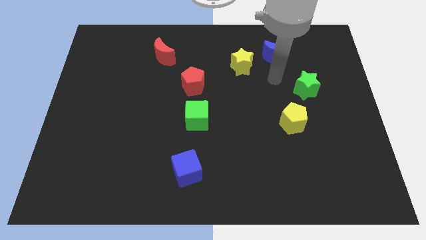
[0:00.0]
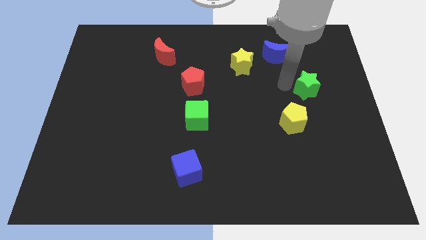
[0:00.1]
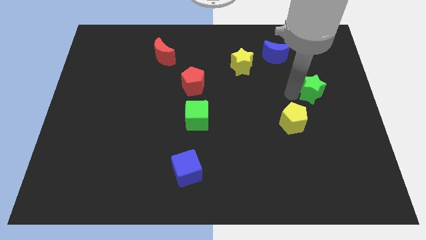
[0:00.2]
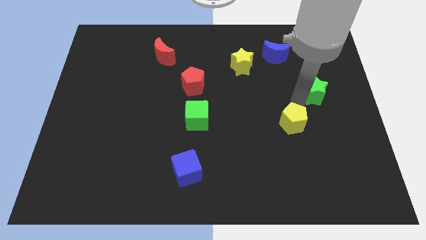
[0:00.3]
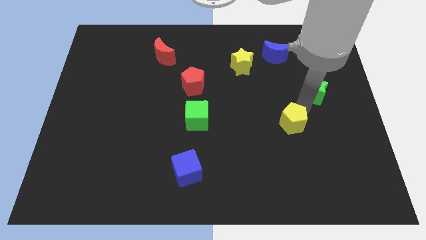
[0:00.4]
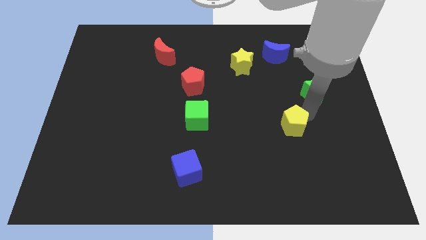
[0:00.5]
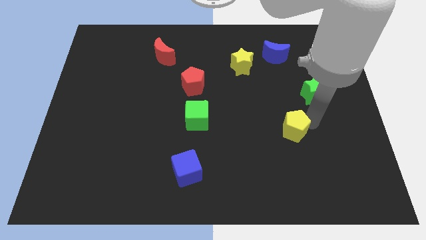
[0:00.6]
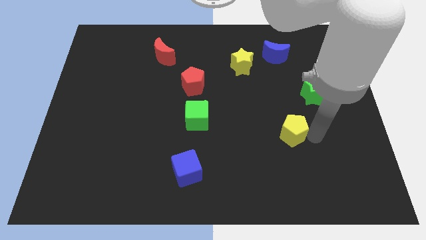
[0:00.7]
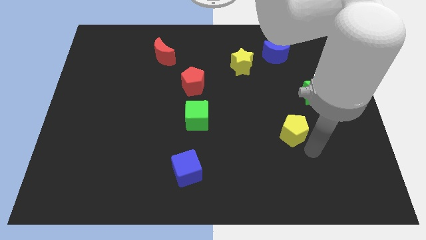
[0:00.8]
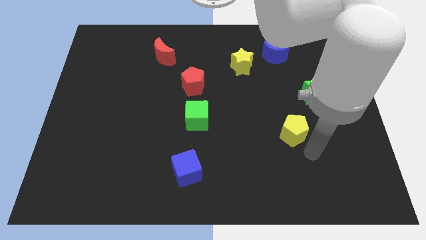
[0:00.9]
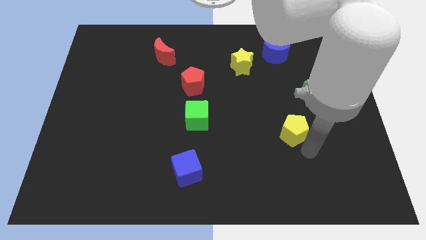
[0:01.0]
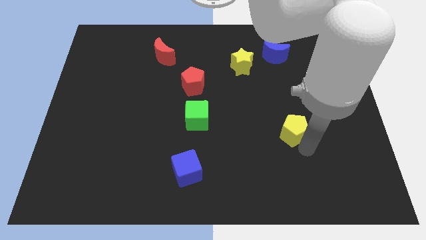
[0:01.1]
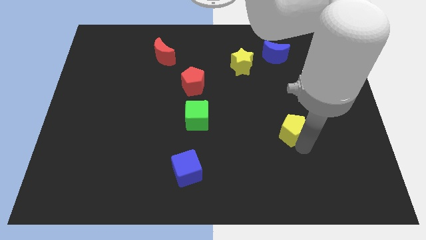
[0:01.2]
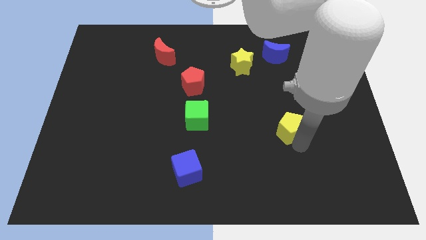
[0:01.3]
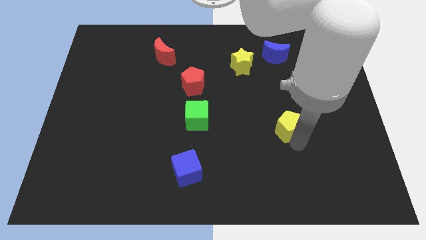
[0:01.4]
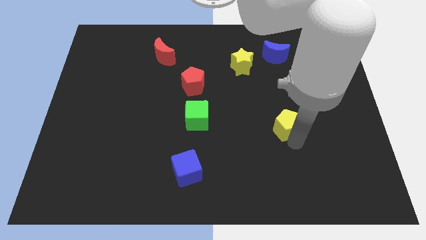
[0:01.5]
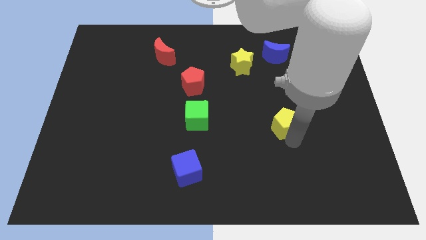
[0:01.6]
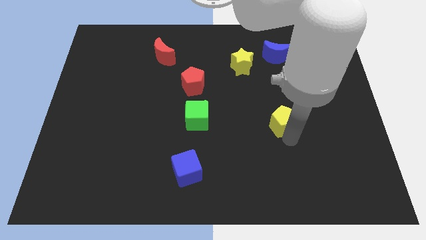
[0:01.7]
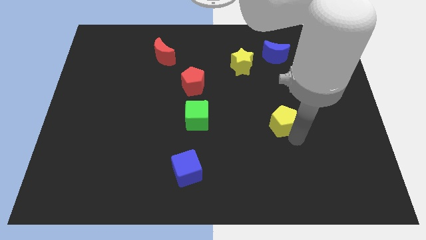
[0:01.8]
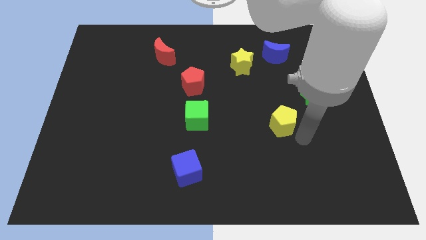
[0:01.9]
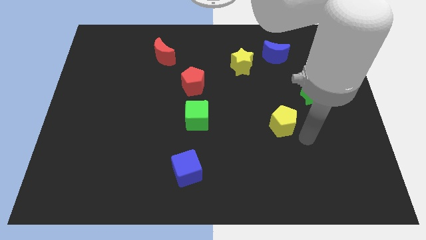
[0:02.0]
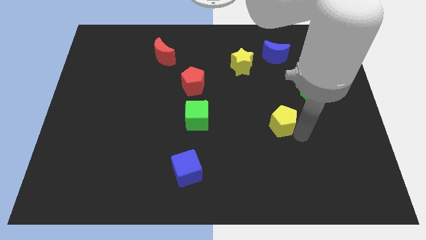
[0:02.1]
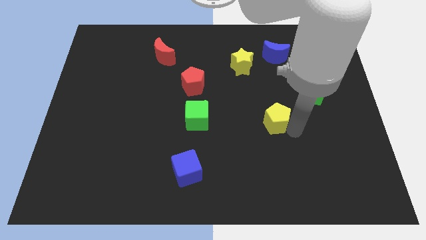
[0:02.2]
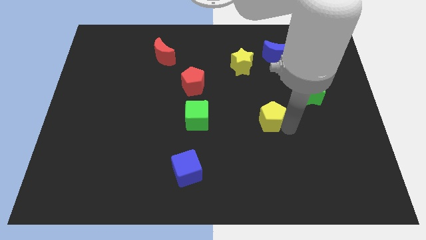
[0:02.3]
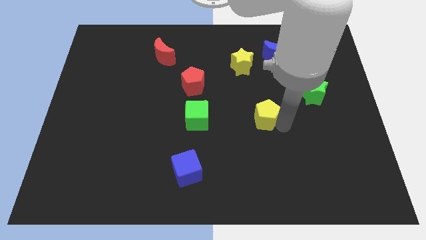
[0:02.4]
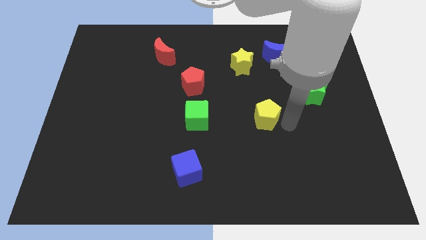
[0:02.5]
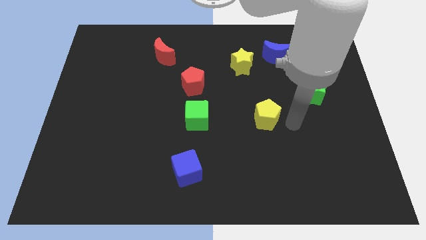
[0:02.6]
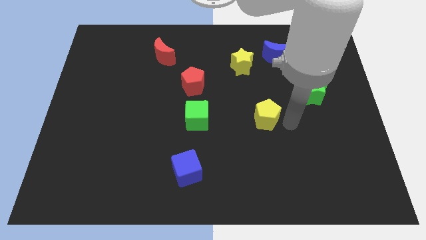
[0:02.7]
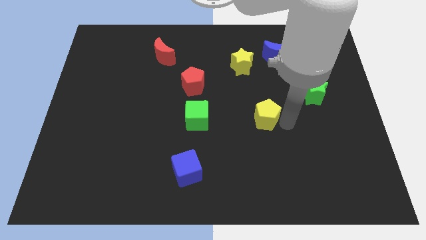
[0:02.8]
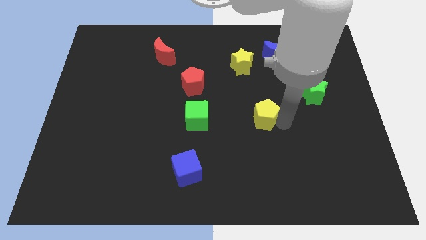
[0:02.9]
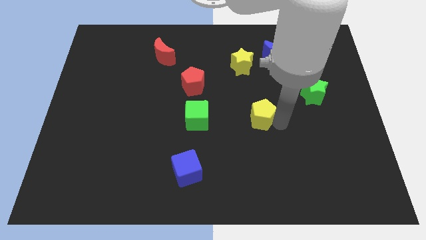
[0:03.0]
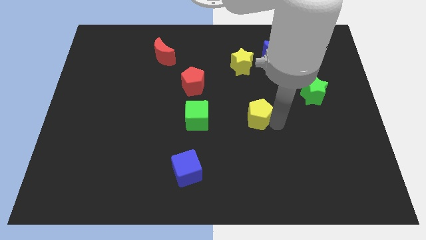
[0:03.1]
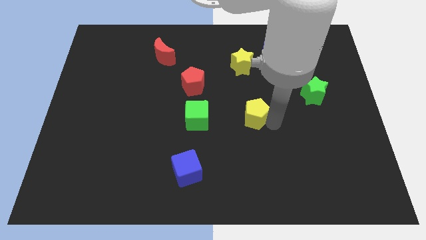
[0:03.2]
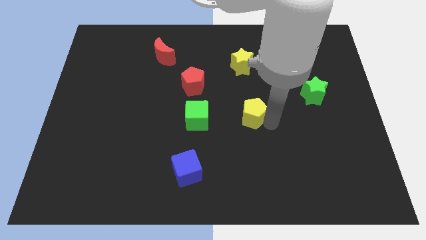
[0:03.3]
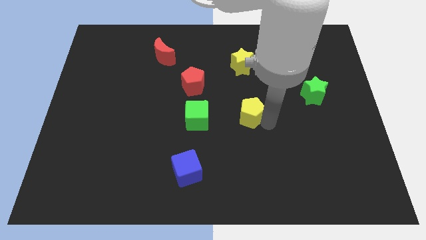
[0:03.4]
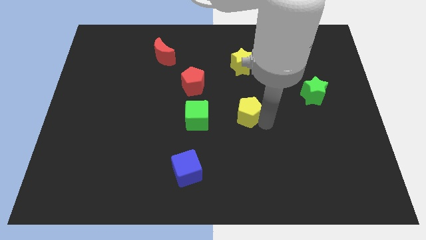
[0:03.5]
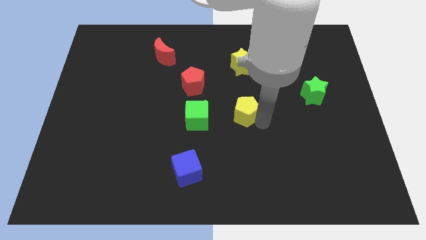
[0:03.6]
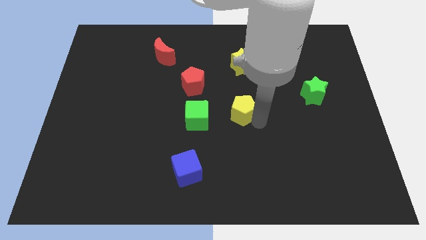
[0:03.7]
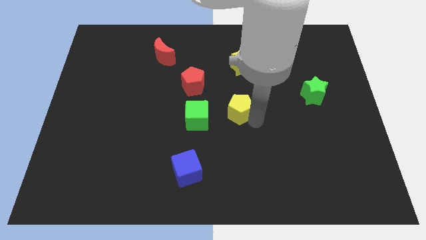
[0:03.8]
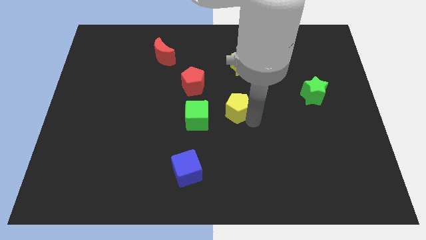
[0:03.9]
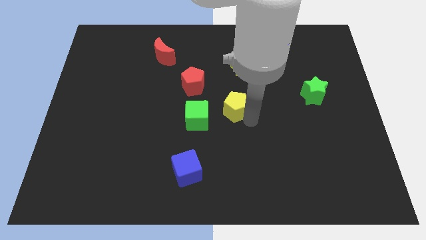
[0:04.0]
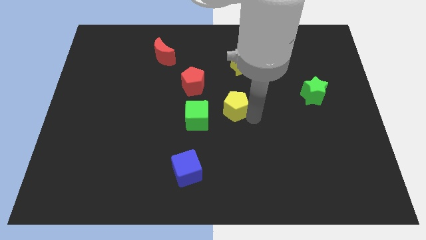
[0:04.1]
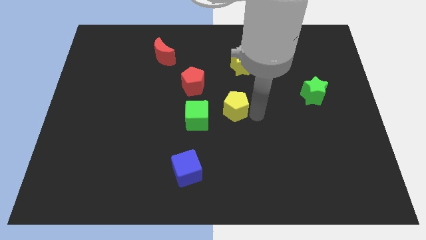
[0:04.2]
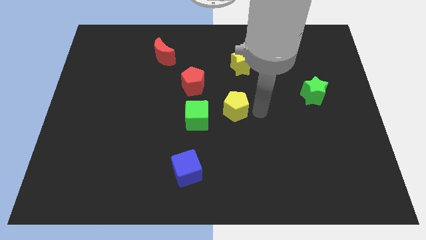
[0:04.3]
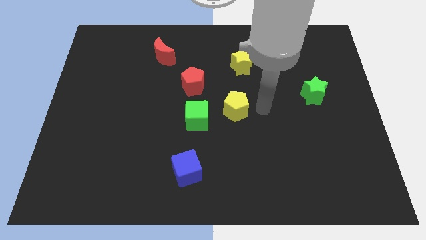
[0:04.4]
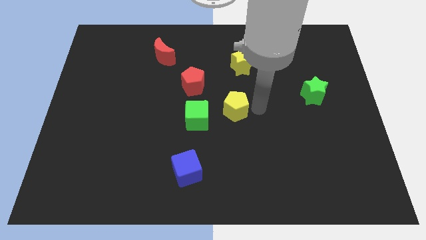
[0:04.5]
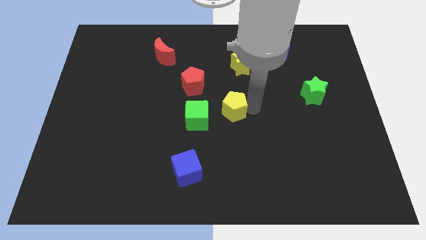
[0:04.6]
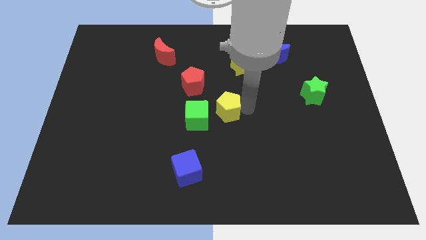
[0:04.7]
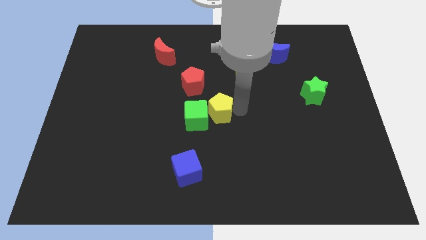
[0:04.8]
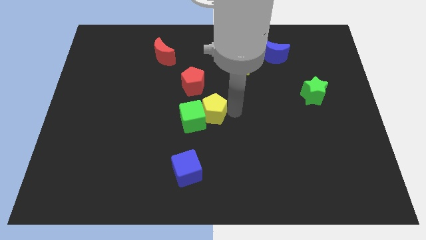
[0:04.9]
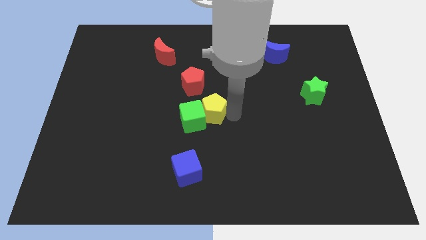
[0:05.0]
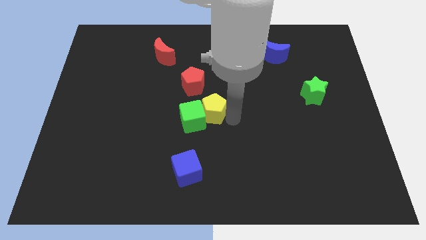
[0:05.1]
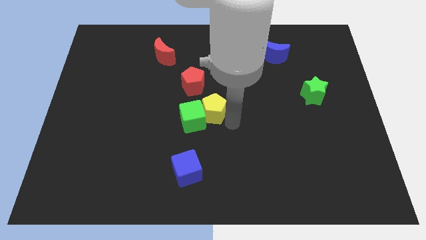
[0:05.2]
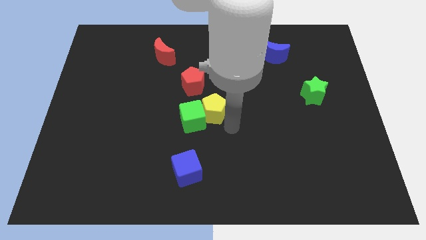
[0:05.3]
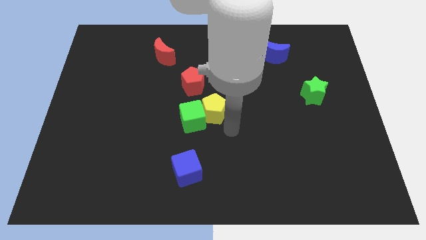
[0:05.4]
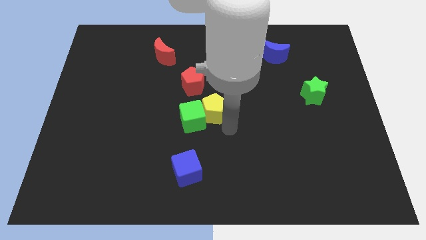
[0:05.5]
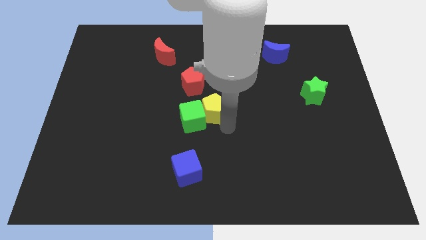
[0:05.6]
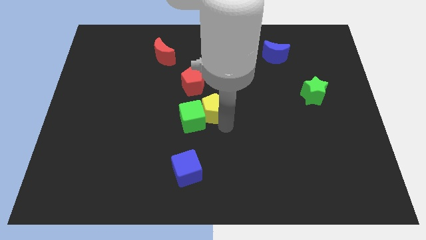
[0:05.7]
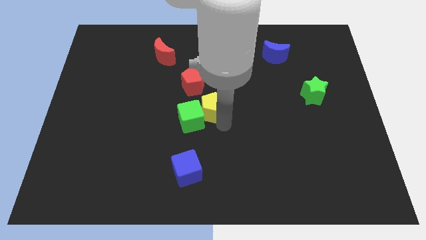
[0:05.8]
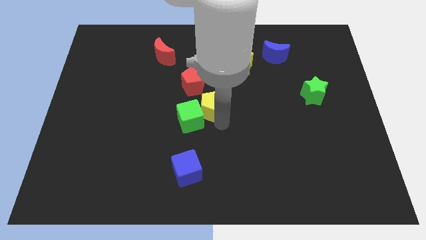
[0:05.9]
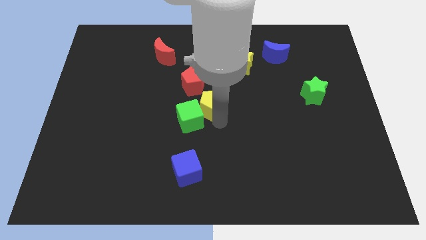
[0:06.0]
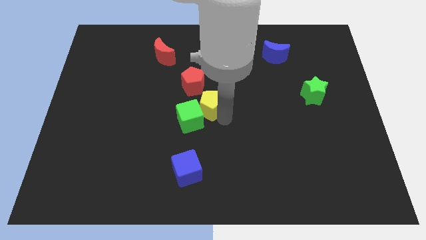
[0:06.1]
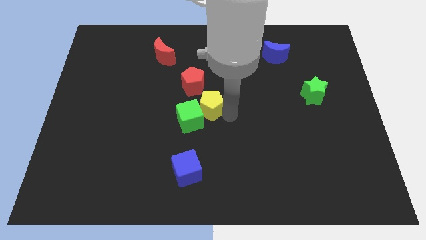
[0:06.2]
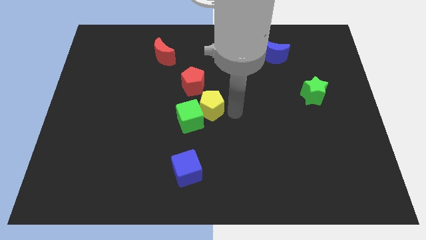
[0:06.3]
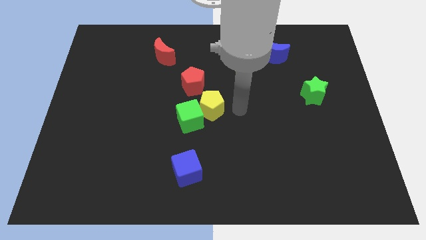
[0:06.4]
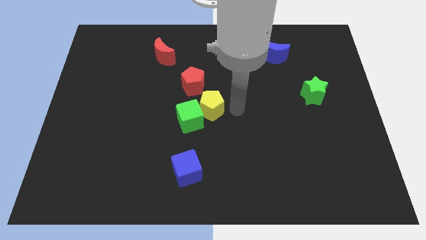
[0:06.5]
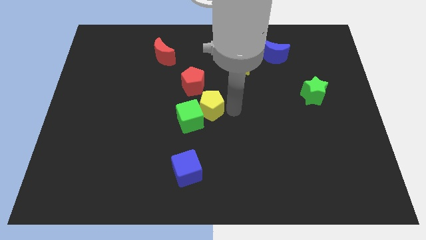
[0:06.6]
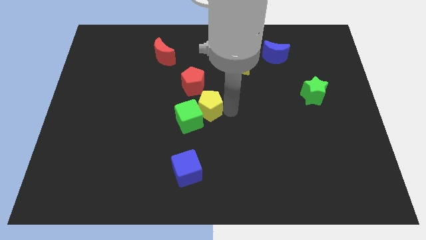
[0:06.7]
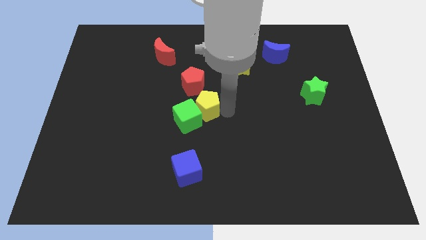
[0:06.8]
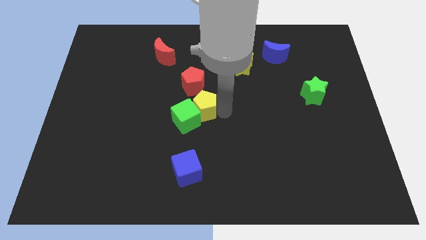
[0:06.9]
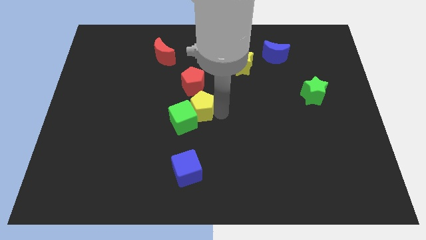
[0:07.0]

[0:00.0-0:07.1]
slide the yellow pentagon to the left

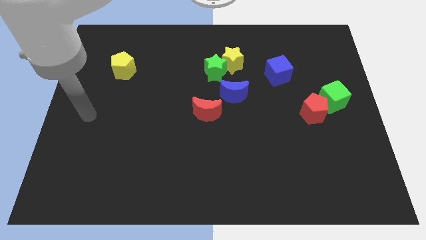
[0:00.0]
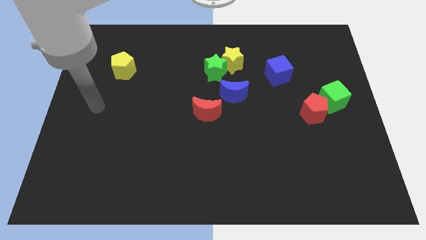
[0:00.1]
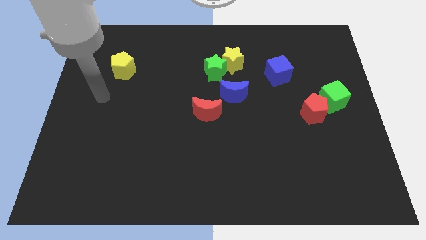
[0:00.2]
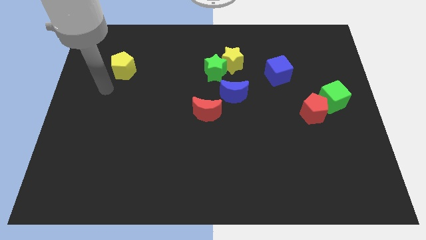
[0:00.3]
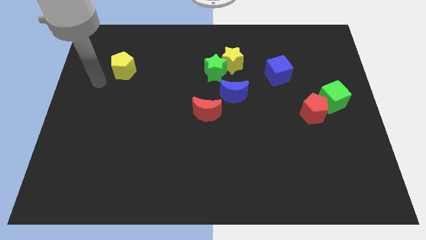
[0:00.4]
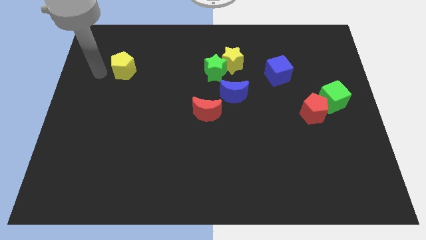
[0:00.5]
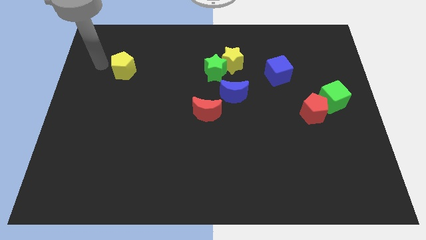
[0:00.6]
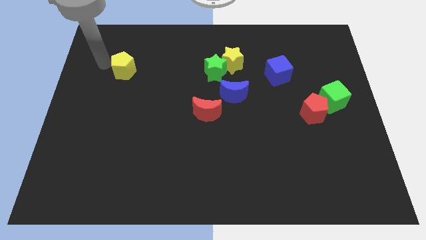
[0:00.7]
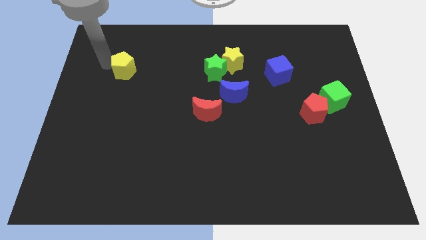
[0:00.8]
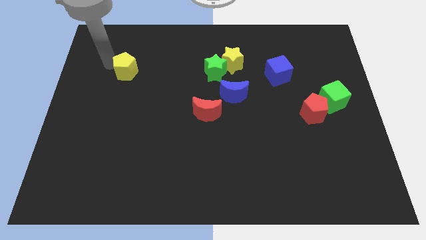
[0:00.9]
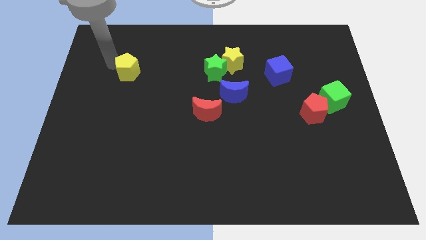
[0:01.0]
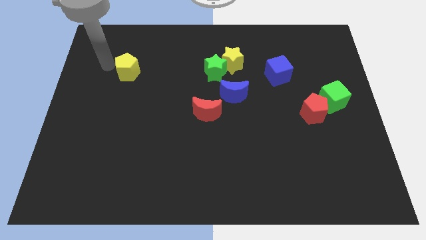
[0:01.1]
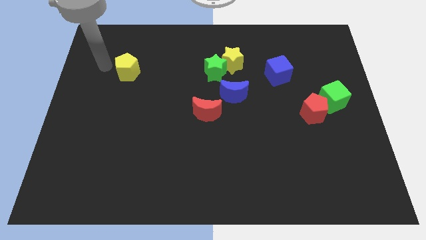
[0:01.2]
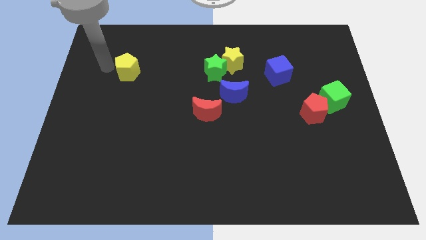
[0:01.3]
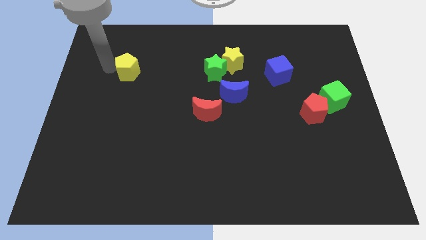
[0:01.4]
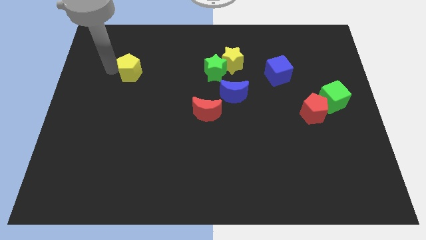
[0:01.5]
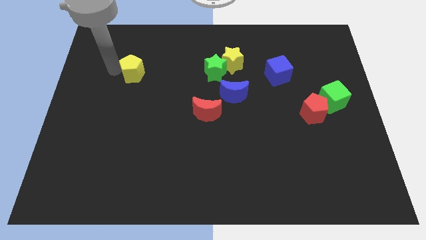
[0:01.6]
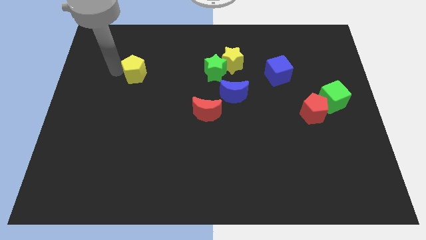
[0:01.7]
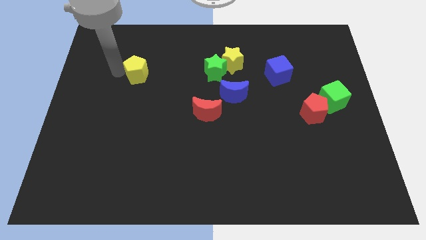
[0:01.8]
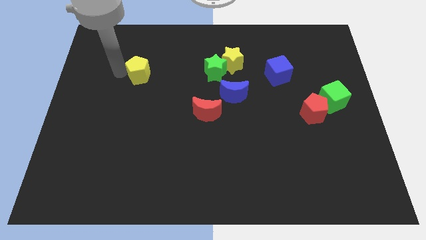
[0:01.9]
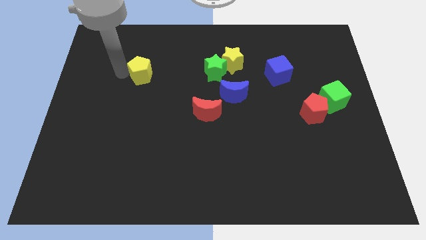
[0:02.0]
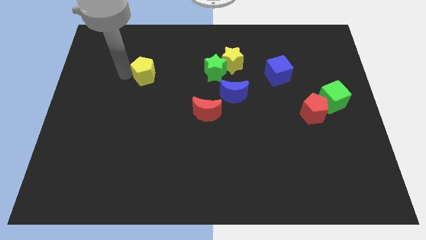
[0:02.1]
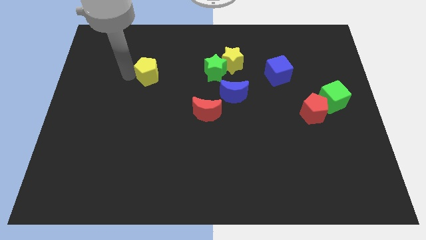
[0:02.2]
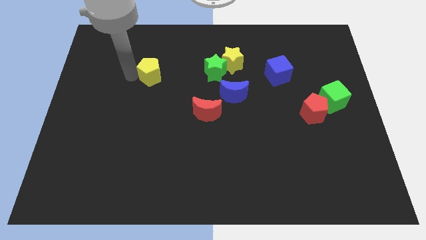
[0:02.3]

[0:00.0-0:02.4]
move the yellow pentagon a little right
